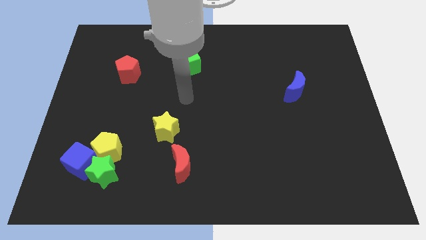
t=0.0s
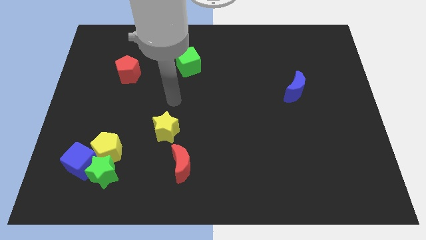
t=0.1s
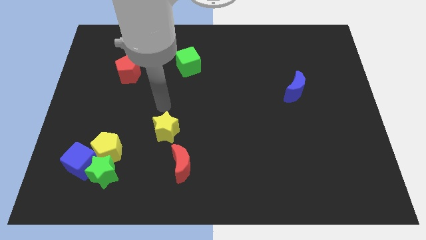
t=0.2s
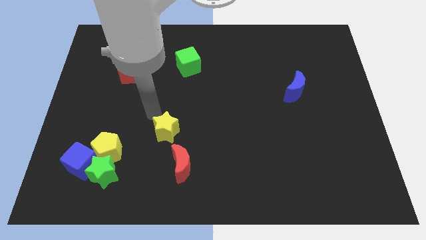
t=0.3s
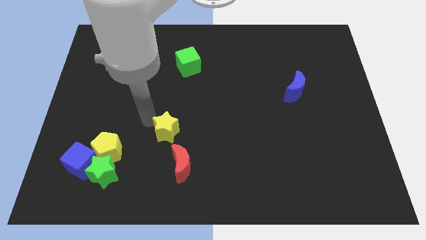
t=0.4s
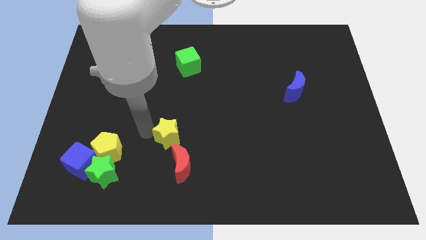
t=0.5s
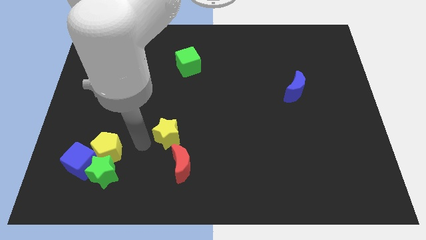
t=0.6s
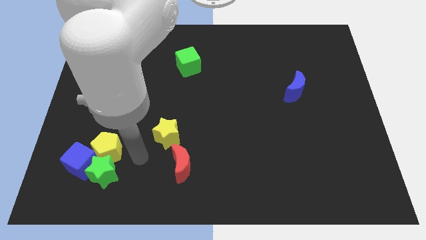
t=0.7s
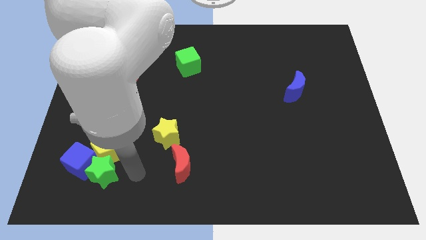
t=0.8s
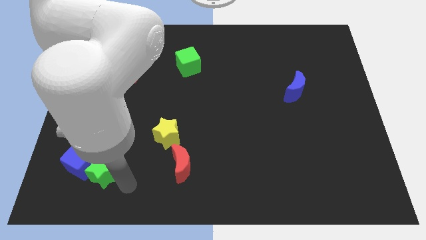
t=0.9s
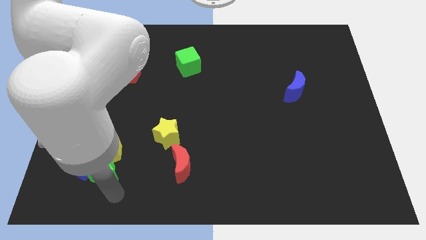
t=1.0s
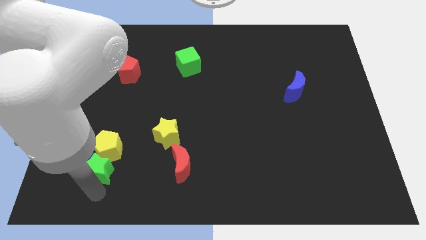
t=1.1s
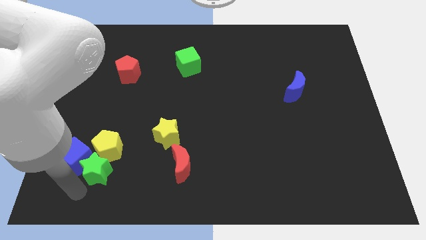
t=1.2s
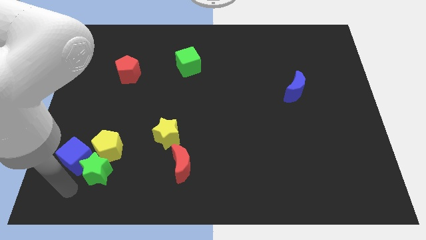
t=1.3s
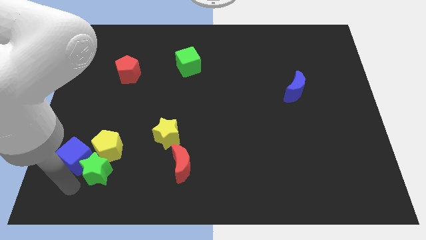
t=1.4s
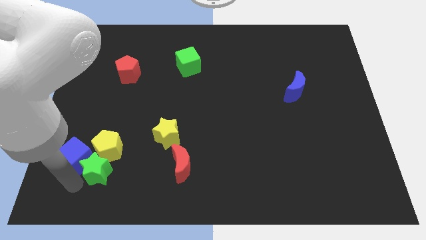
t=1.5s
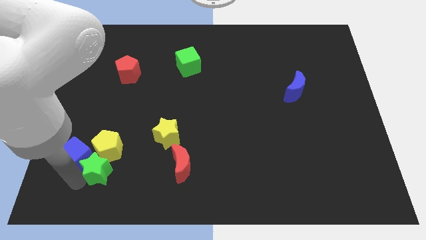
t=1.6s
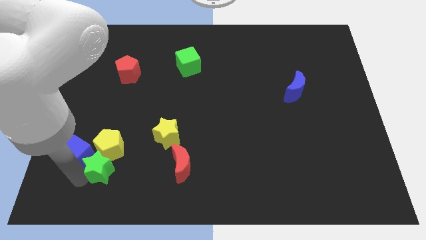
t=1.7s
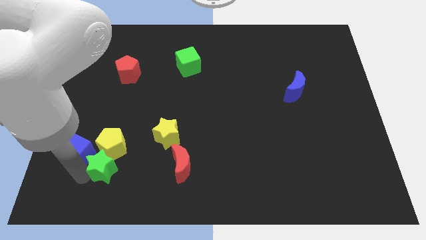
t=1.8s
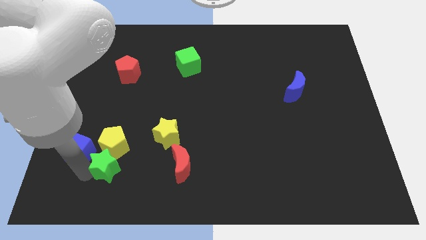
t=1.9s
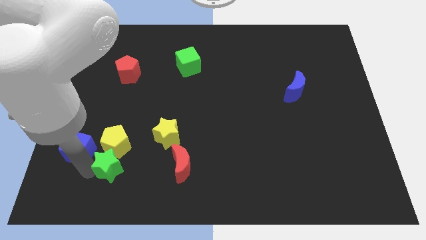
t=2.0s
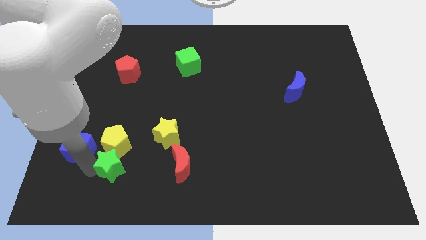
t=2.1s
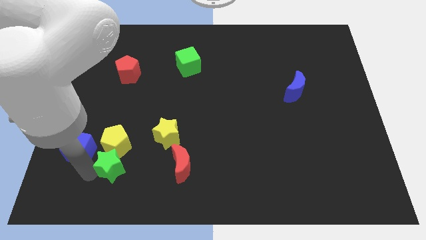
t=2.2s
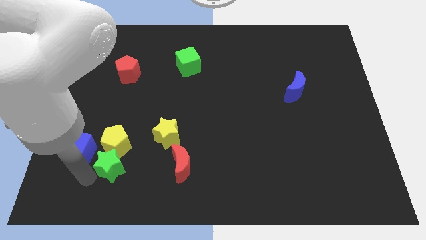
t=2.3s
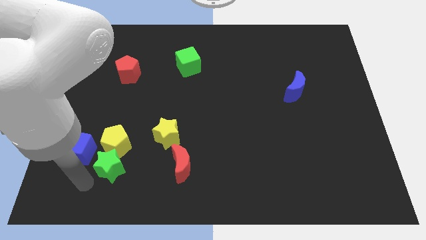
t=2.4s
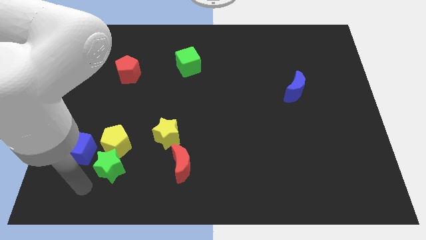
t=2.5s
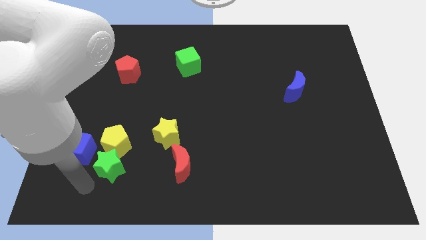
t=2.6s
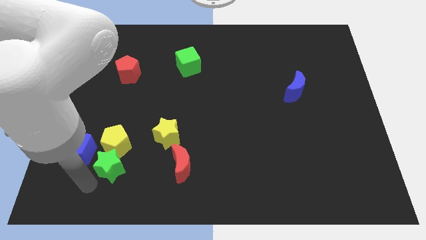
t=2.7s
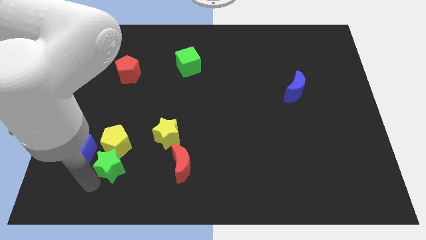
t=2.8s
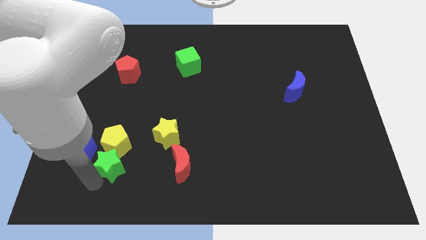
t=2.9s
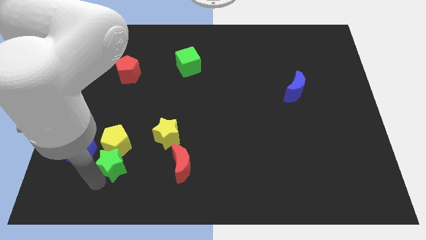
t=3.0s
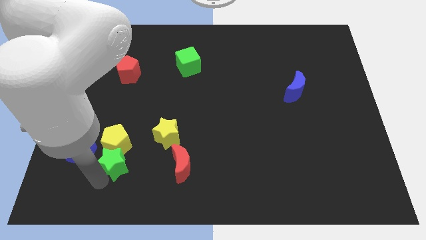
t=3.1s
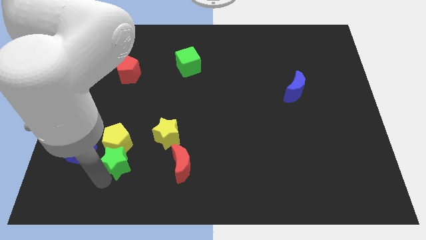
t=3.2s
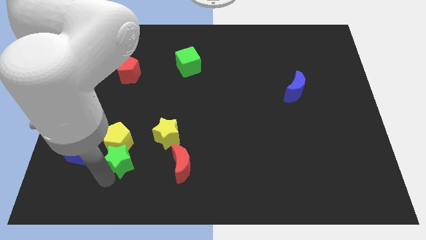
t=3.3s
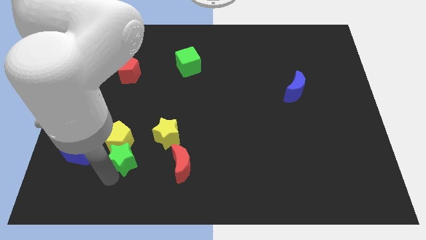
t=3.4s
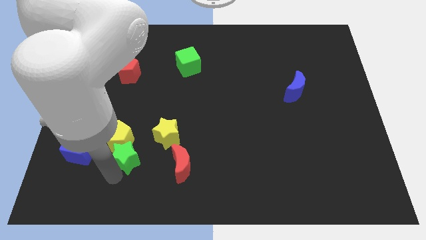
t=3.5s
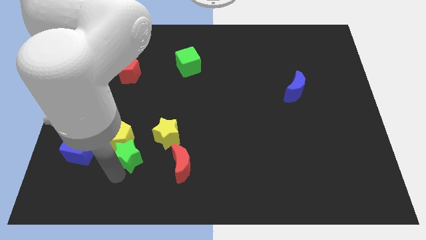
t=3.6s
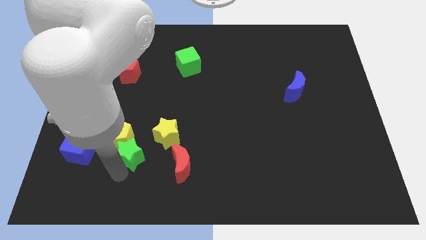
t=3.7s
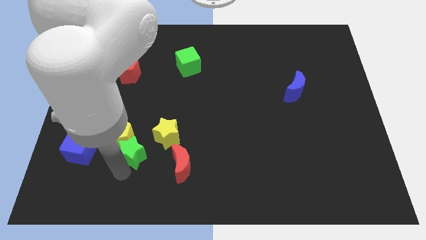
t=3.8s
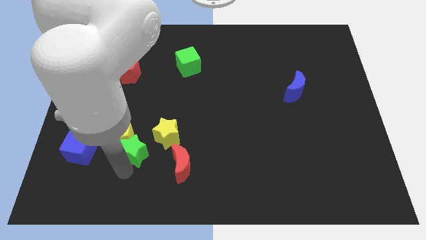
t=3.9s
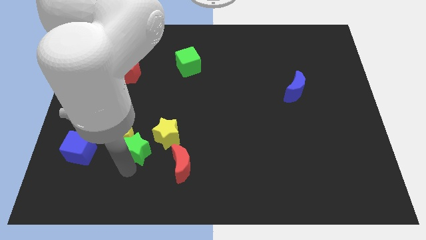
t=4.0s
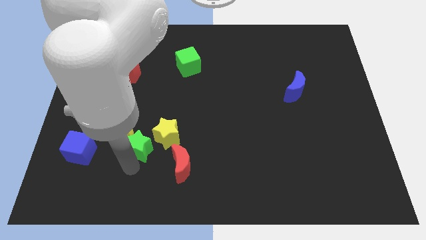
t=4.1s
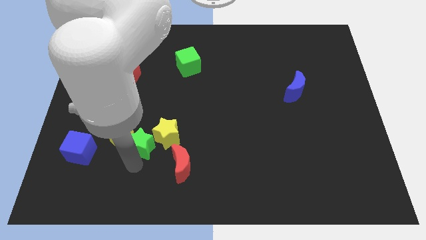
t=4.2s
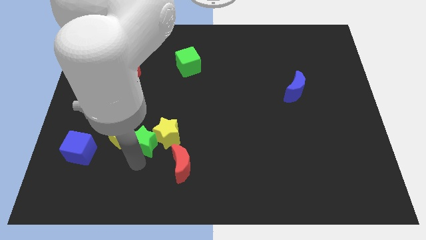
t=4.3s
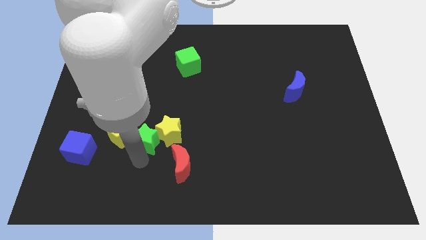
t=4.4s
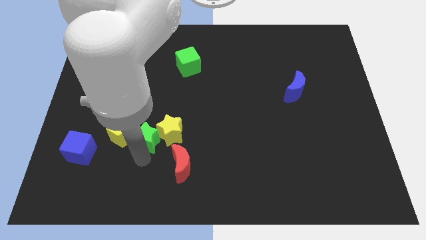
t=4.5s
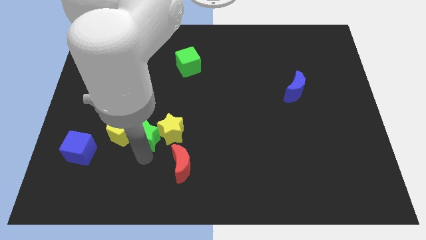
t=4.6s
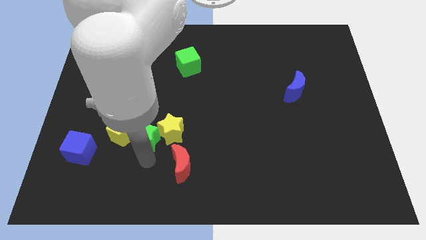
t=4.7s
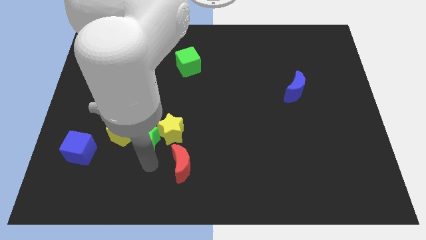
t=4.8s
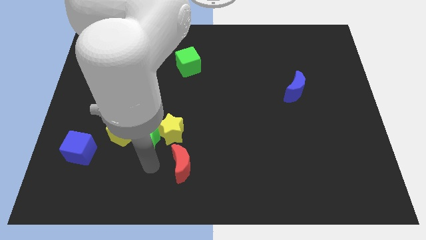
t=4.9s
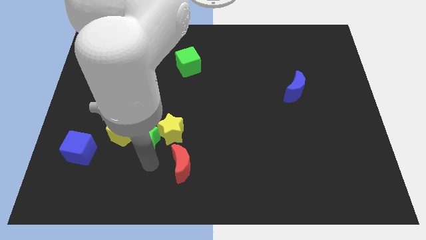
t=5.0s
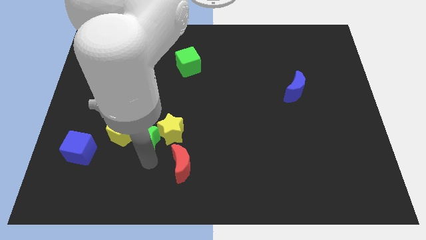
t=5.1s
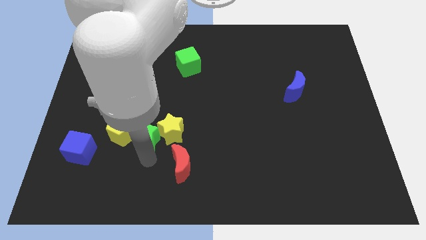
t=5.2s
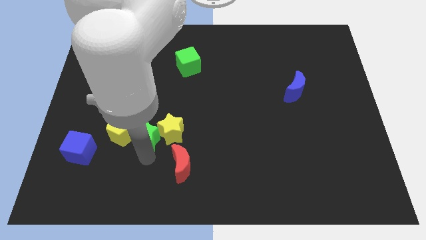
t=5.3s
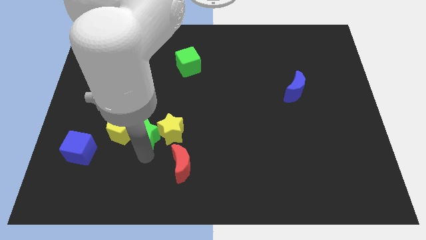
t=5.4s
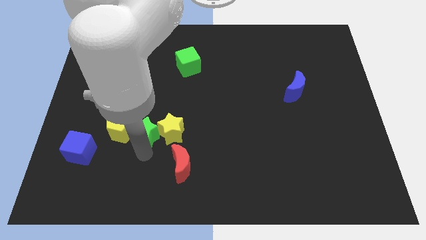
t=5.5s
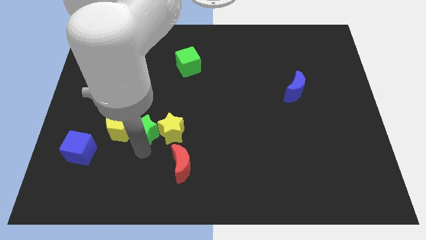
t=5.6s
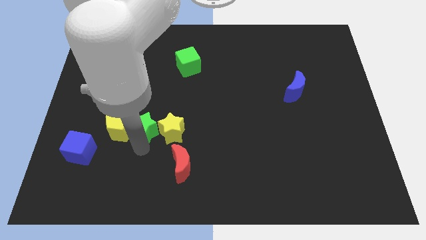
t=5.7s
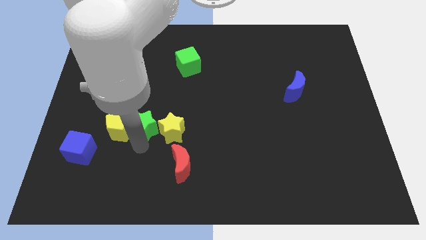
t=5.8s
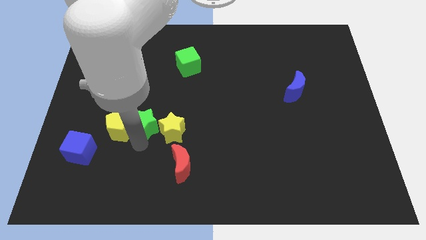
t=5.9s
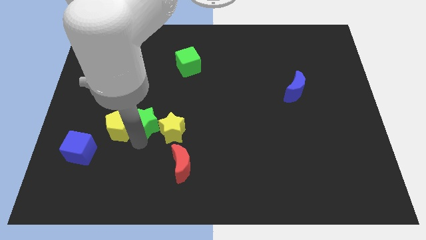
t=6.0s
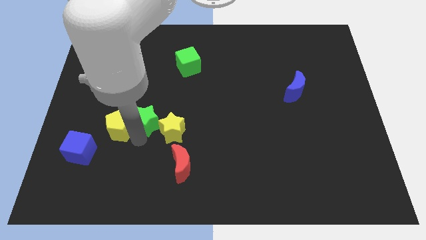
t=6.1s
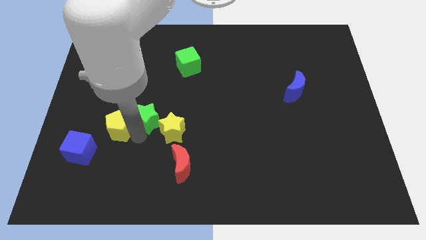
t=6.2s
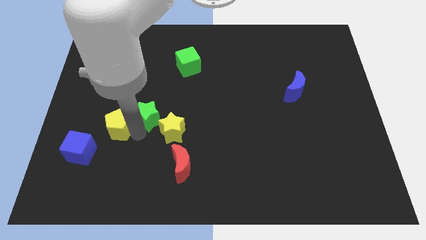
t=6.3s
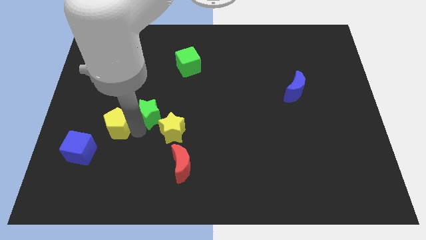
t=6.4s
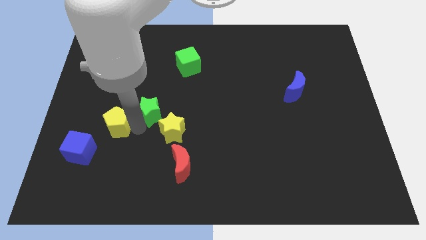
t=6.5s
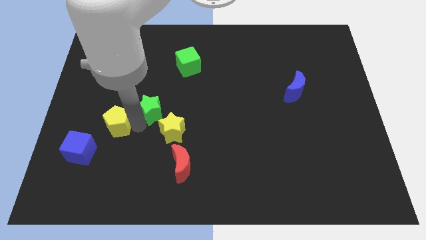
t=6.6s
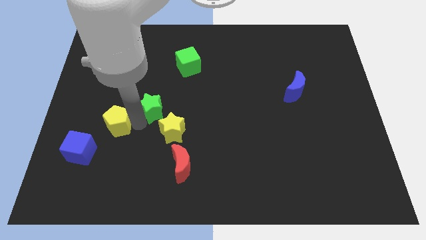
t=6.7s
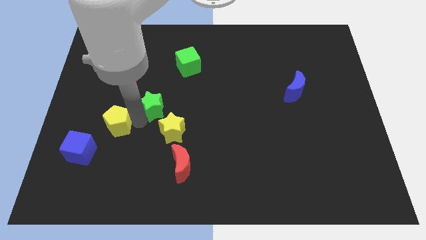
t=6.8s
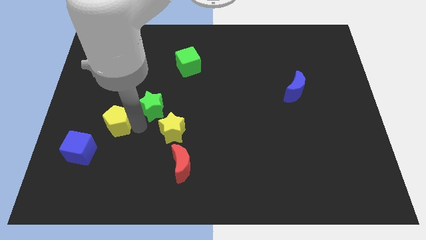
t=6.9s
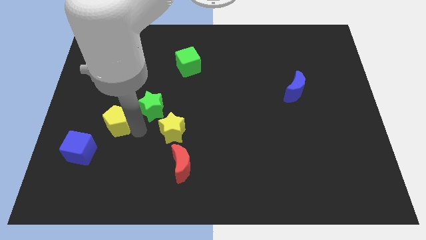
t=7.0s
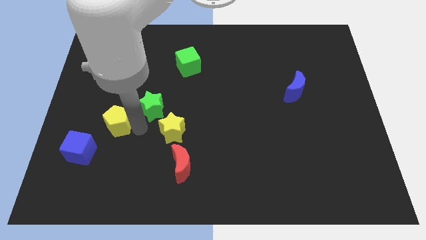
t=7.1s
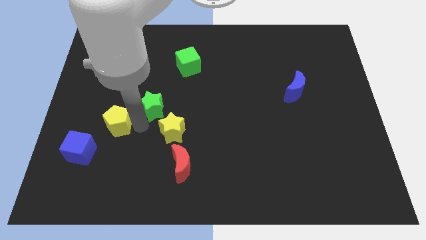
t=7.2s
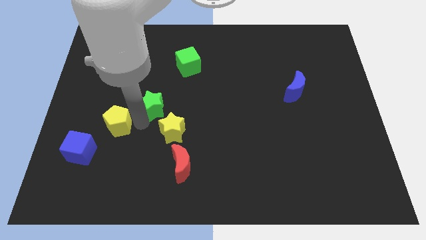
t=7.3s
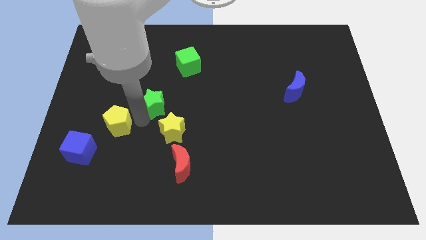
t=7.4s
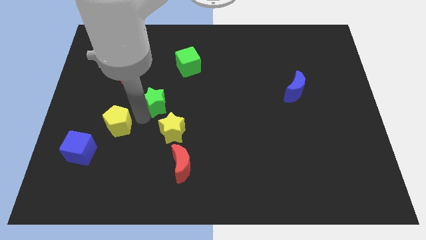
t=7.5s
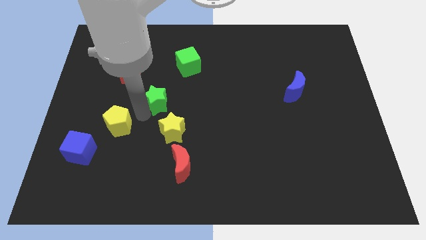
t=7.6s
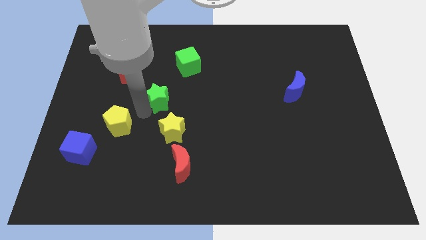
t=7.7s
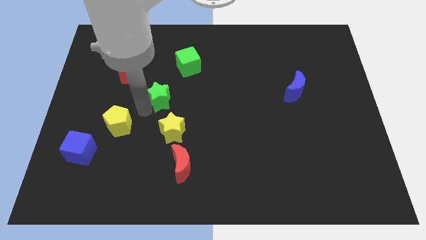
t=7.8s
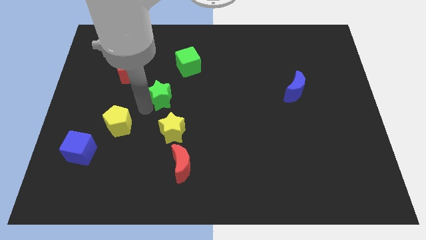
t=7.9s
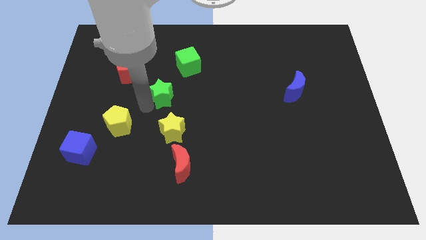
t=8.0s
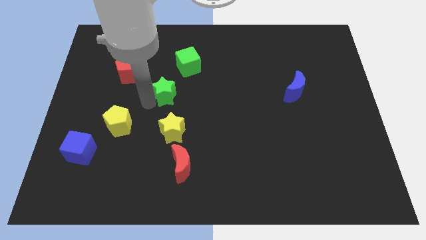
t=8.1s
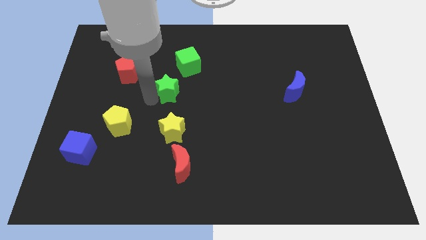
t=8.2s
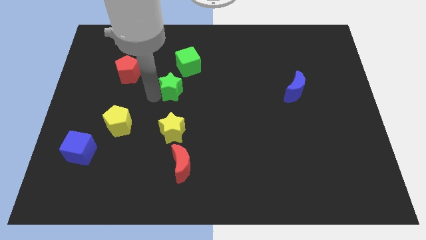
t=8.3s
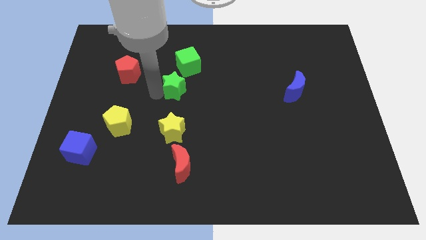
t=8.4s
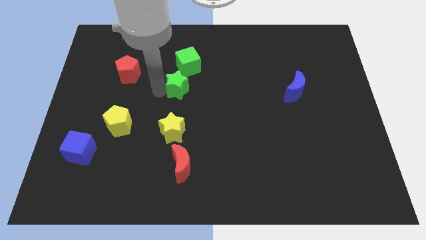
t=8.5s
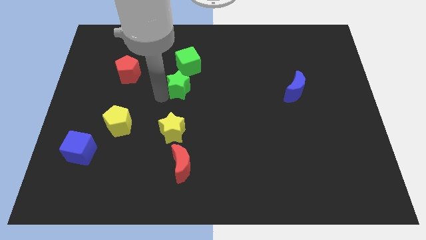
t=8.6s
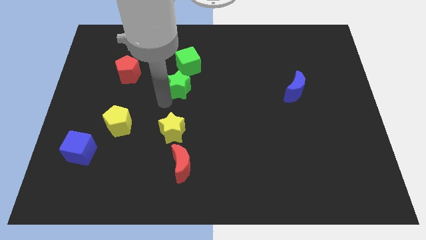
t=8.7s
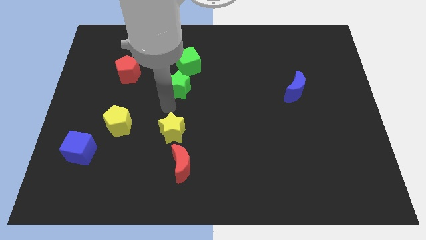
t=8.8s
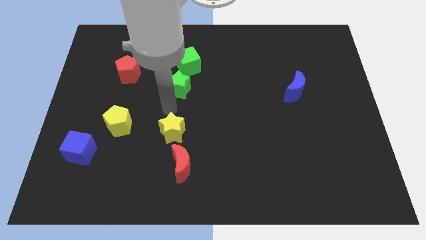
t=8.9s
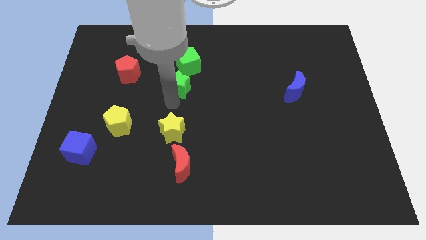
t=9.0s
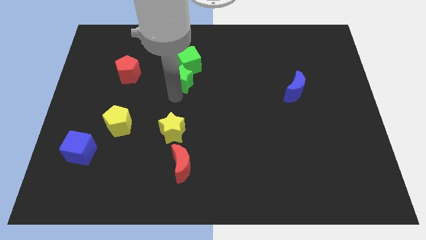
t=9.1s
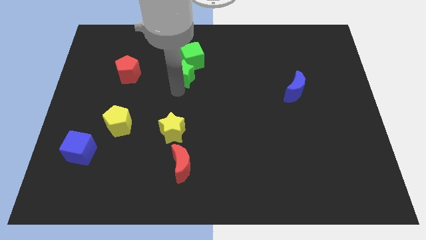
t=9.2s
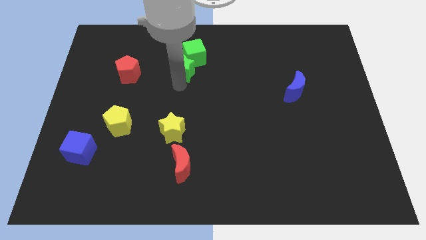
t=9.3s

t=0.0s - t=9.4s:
push the green star close to the green cube
